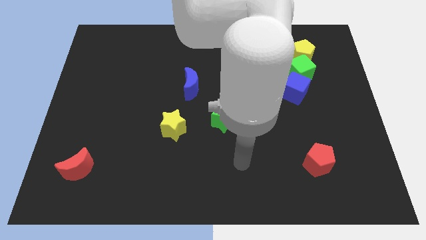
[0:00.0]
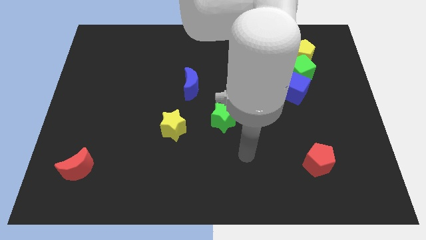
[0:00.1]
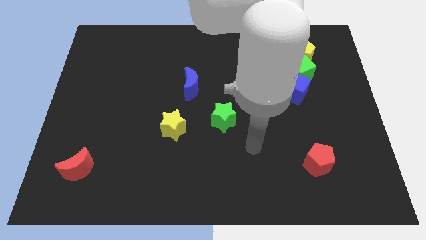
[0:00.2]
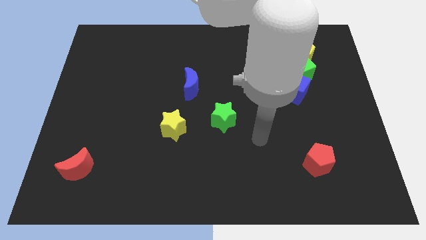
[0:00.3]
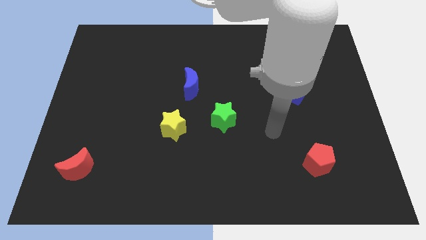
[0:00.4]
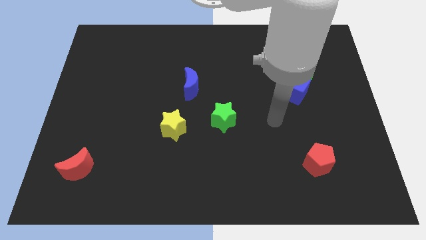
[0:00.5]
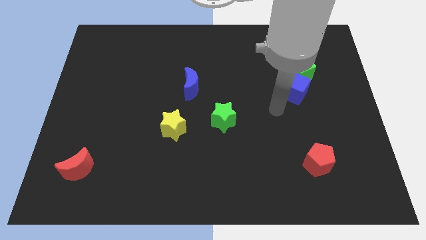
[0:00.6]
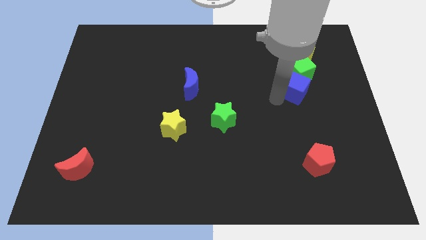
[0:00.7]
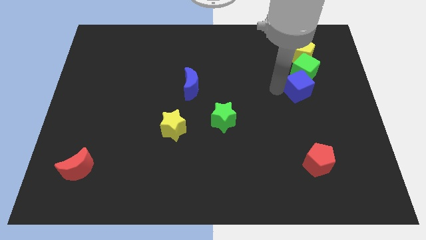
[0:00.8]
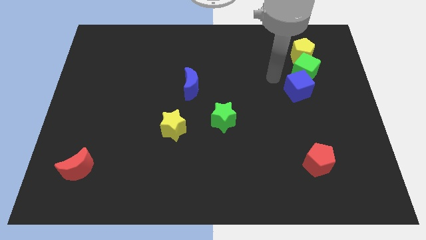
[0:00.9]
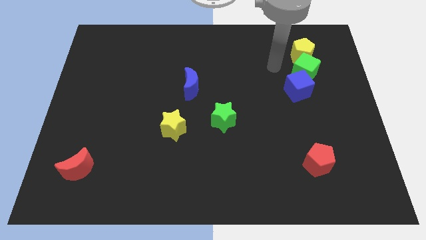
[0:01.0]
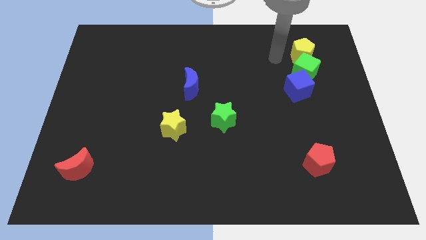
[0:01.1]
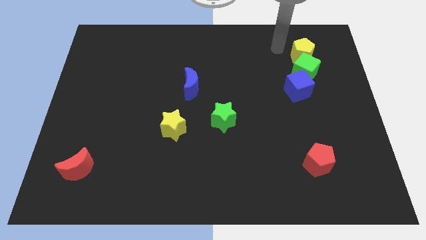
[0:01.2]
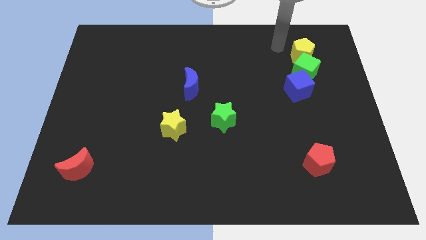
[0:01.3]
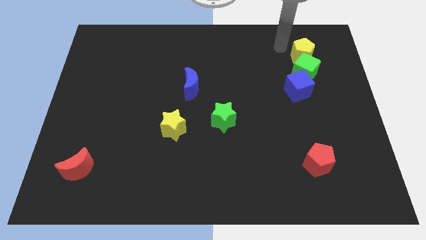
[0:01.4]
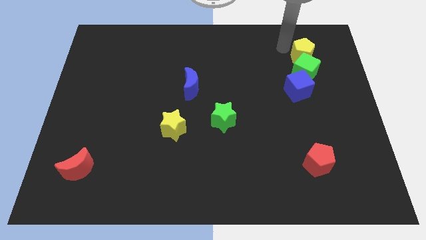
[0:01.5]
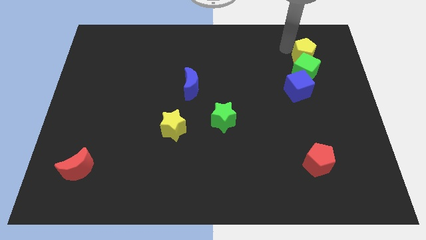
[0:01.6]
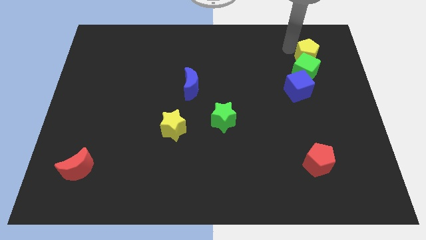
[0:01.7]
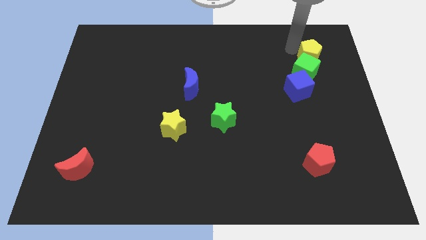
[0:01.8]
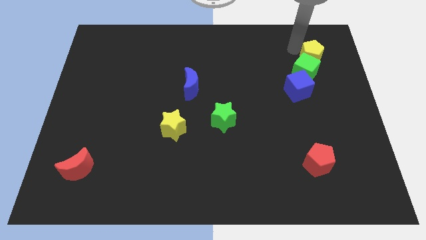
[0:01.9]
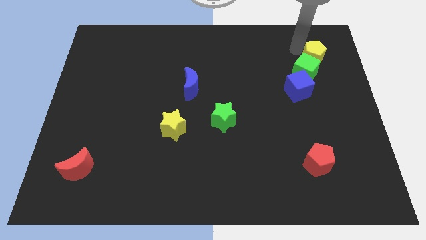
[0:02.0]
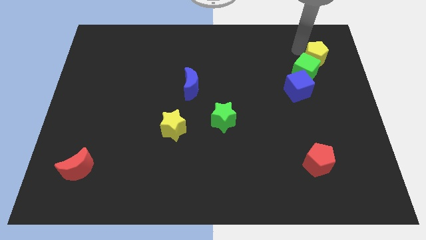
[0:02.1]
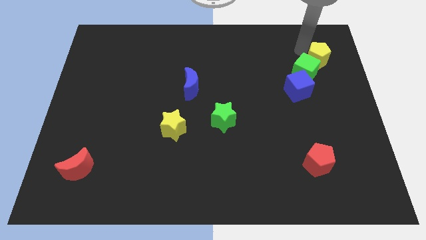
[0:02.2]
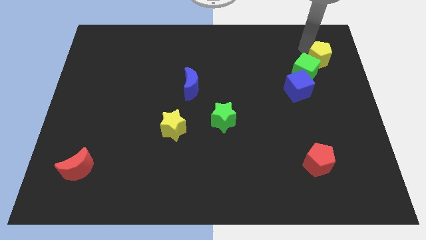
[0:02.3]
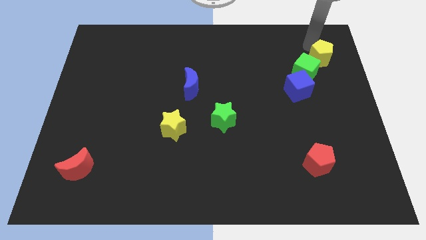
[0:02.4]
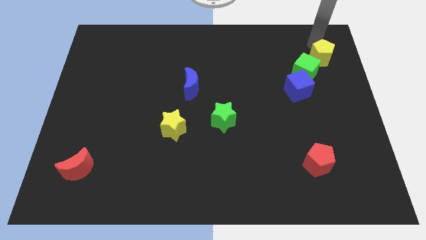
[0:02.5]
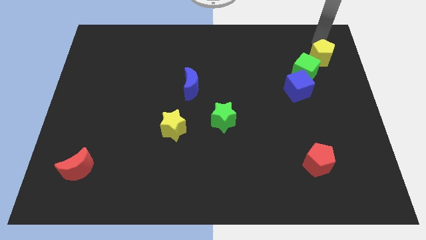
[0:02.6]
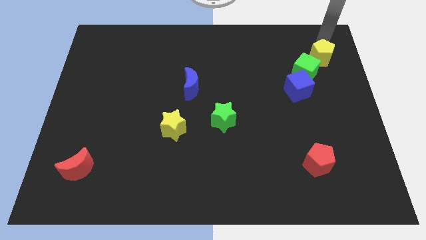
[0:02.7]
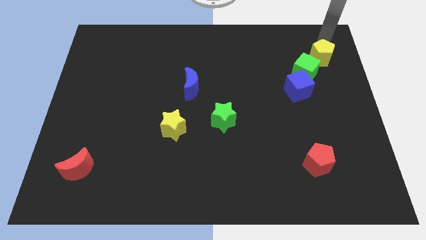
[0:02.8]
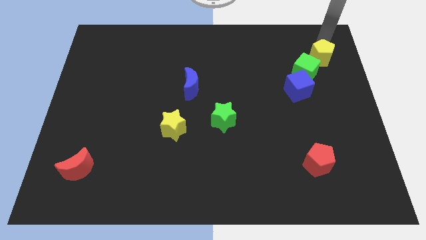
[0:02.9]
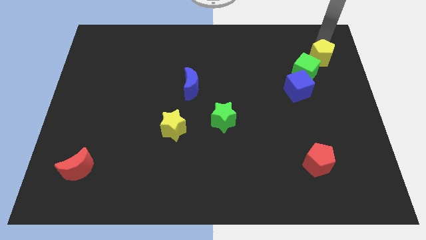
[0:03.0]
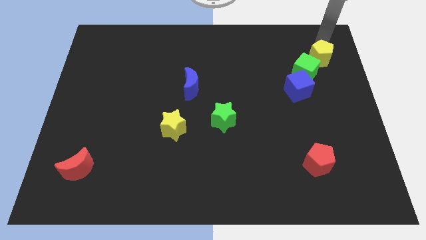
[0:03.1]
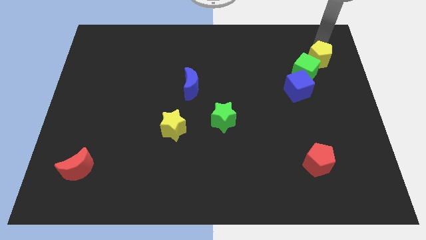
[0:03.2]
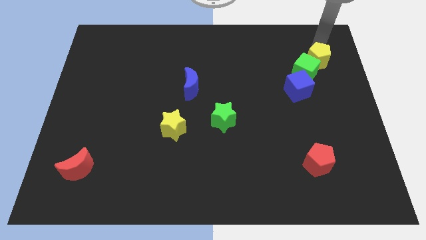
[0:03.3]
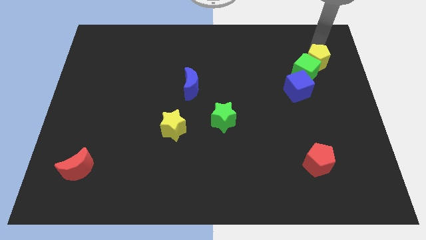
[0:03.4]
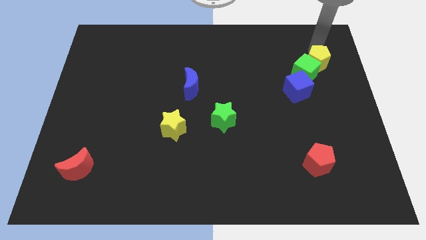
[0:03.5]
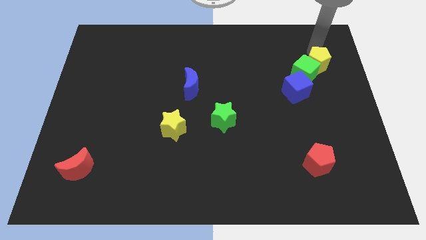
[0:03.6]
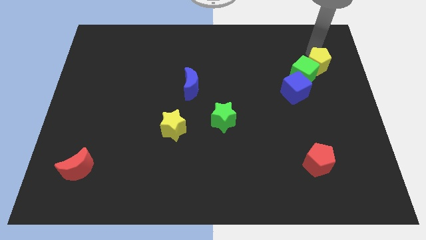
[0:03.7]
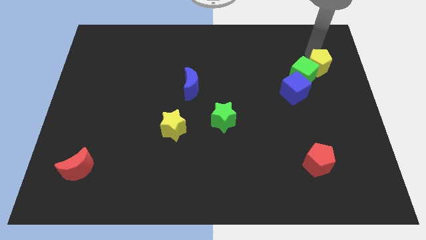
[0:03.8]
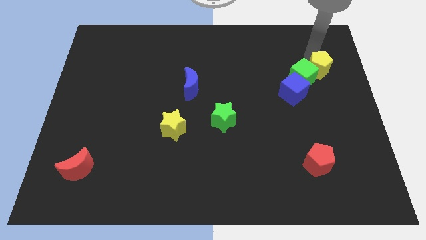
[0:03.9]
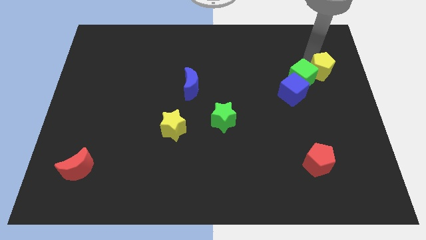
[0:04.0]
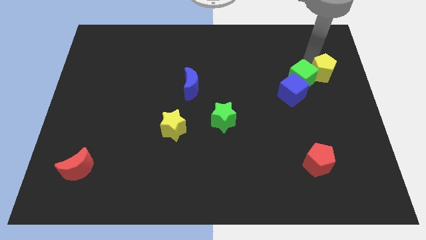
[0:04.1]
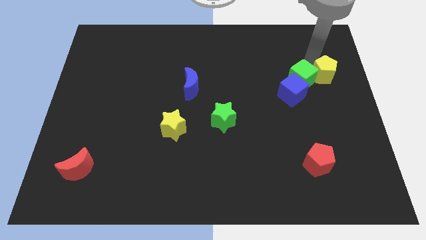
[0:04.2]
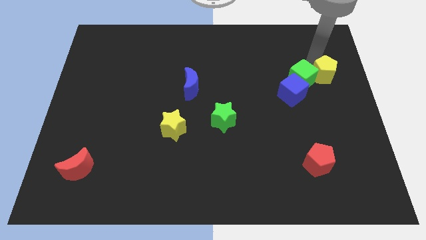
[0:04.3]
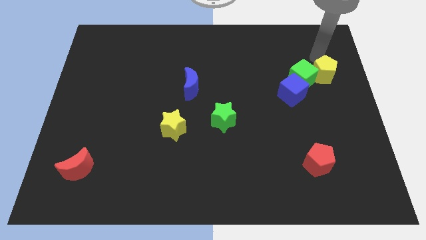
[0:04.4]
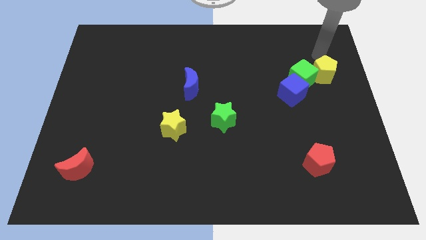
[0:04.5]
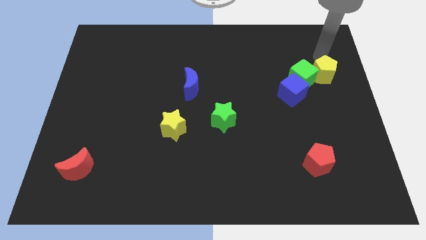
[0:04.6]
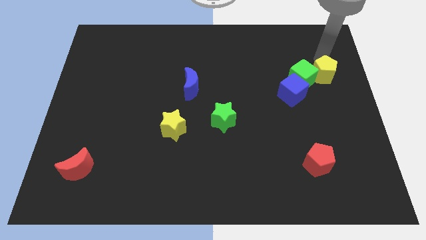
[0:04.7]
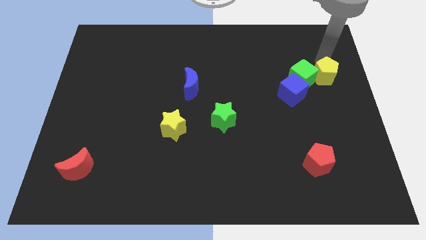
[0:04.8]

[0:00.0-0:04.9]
put the yellow pentagon diagonally down and to the right of the green cube

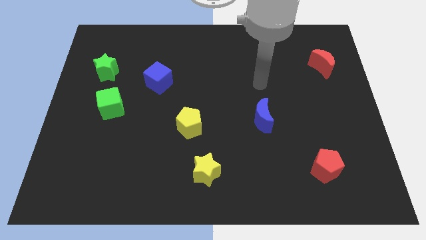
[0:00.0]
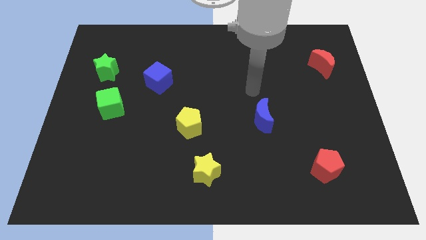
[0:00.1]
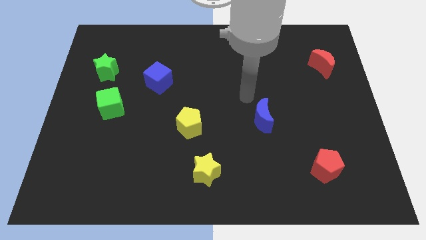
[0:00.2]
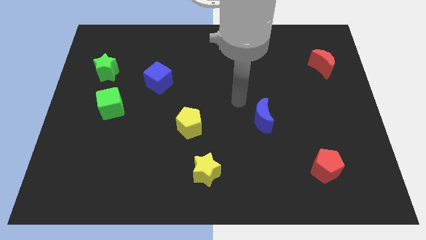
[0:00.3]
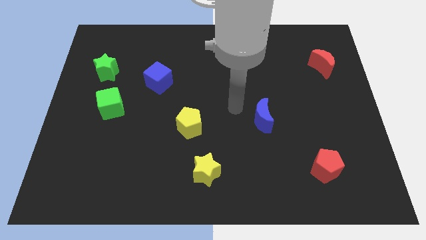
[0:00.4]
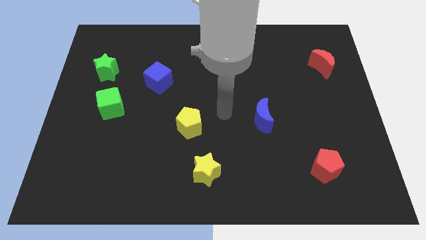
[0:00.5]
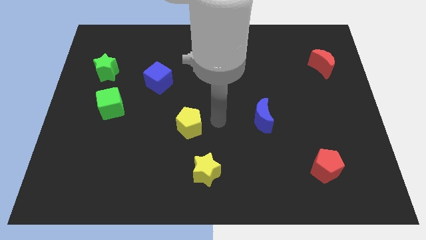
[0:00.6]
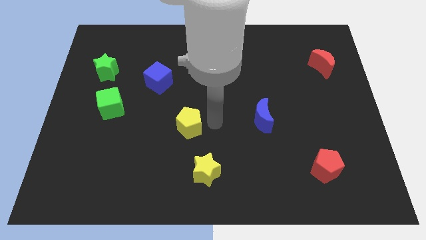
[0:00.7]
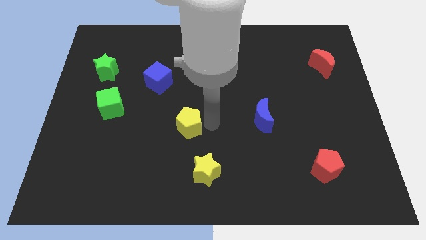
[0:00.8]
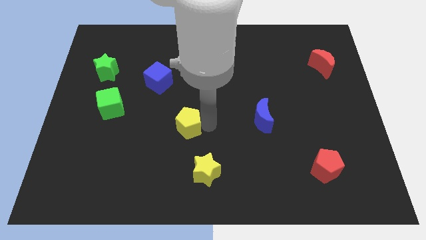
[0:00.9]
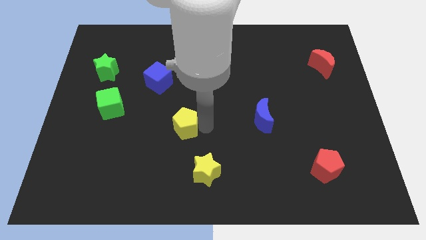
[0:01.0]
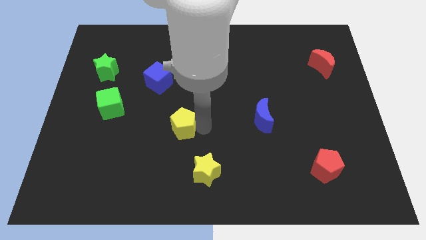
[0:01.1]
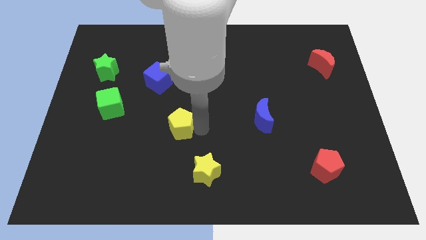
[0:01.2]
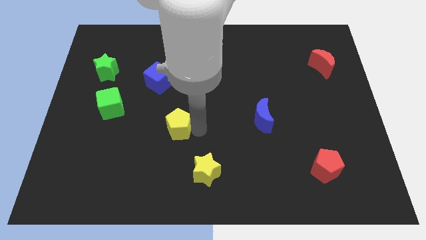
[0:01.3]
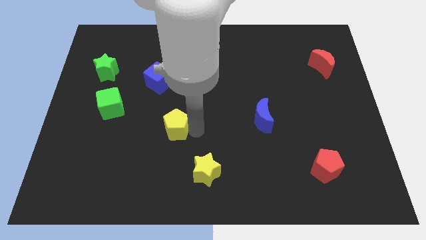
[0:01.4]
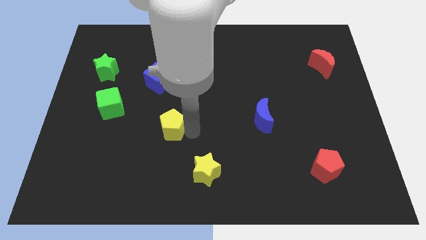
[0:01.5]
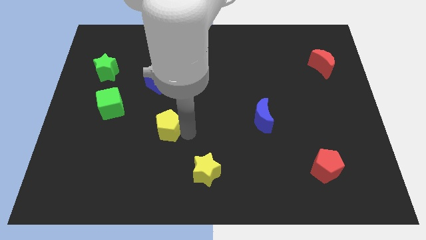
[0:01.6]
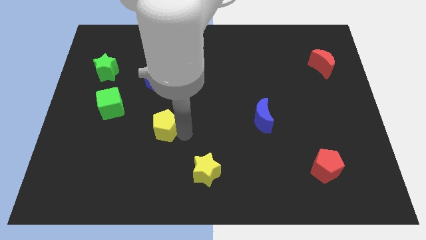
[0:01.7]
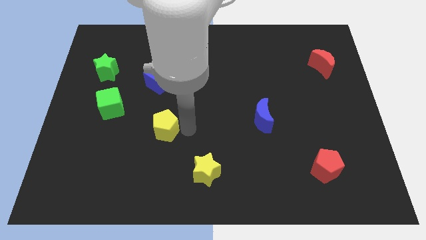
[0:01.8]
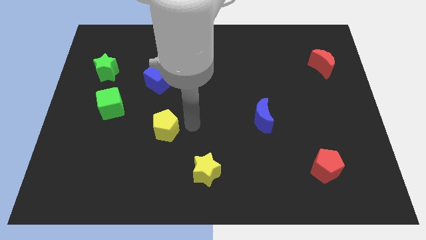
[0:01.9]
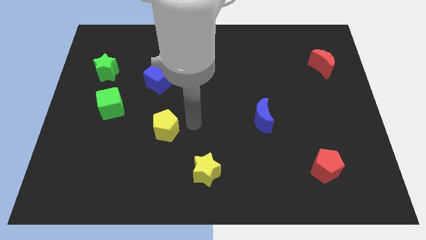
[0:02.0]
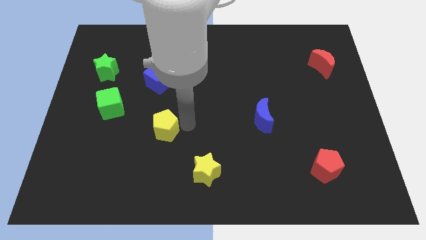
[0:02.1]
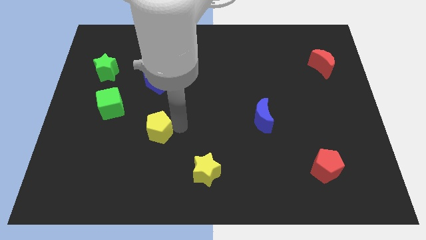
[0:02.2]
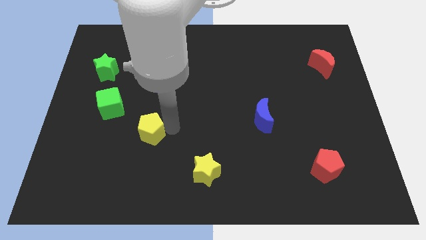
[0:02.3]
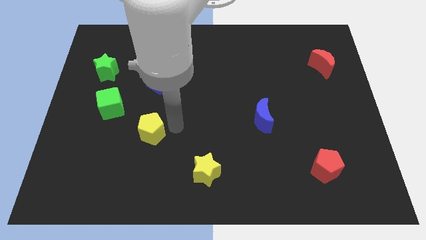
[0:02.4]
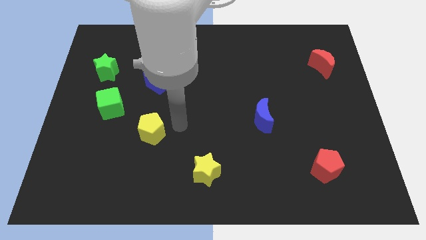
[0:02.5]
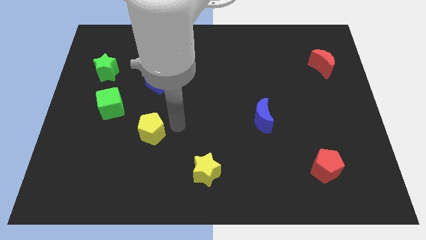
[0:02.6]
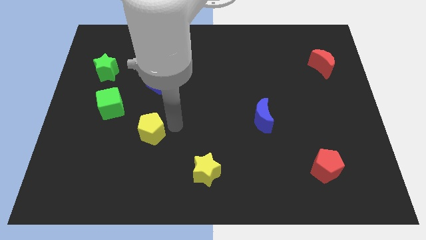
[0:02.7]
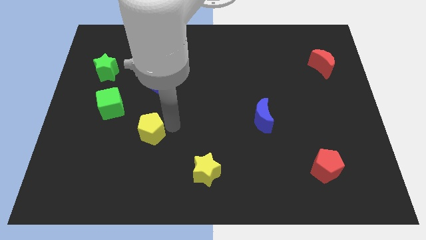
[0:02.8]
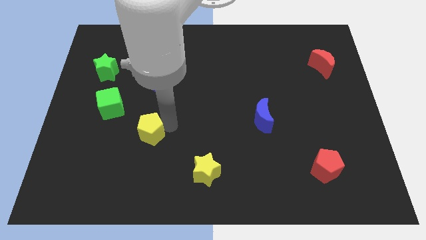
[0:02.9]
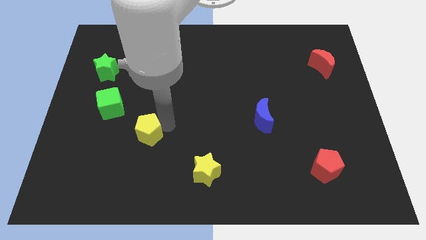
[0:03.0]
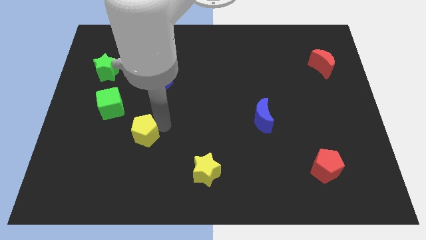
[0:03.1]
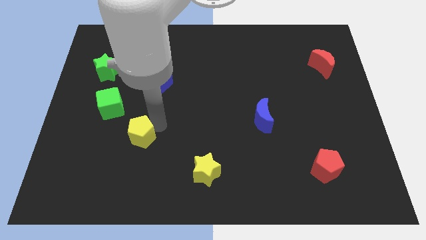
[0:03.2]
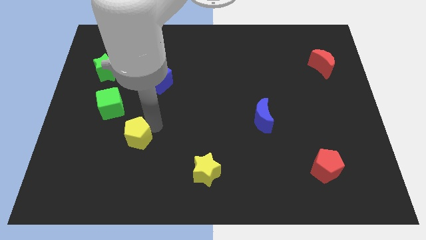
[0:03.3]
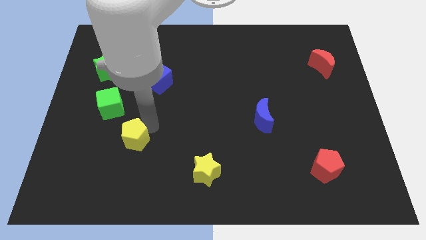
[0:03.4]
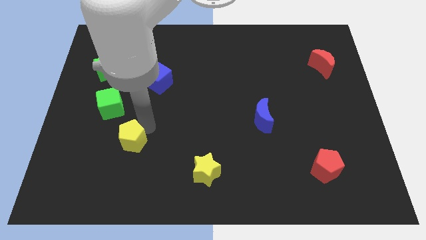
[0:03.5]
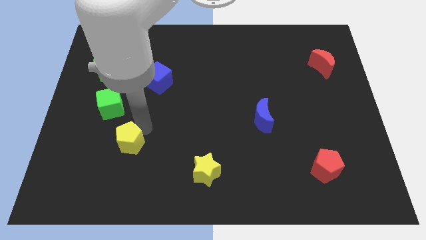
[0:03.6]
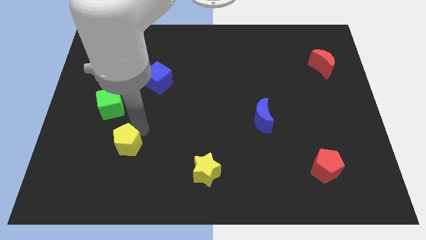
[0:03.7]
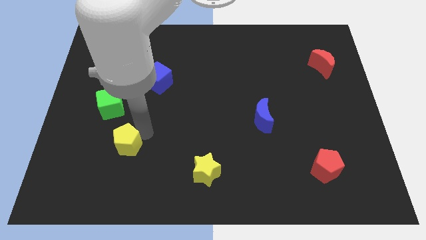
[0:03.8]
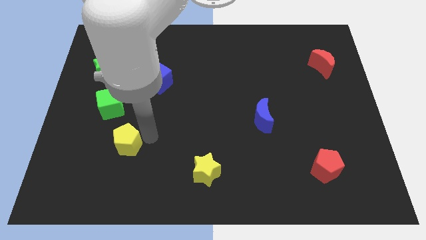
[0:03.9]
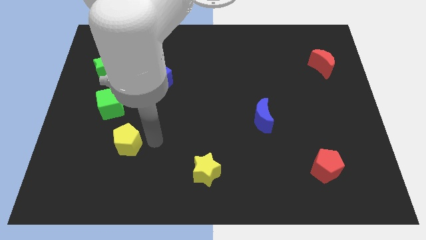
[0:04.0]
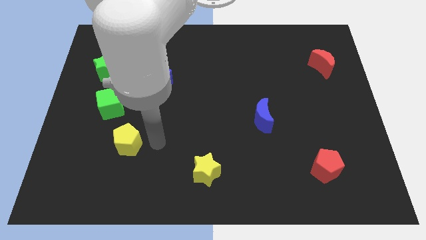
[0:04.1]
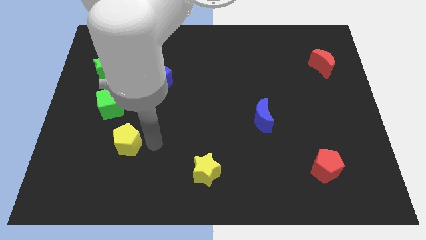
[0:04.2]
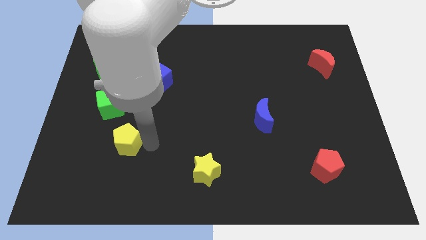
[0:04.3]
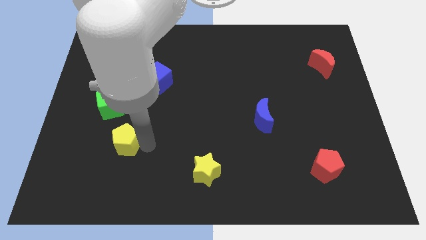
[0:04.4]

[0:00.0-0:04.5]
push the yellow pentagon to the bottom of the green cube
